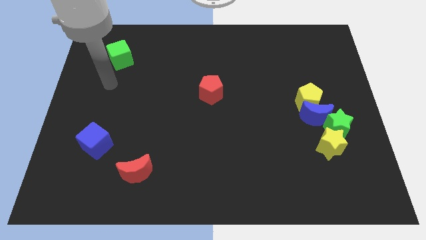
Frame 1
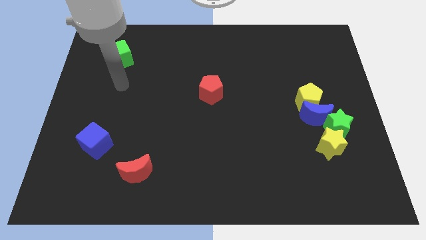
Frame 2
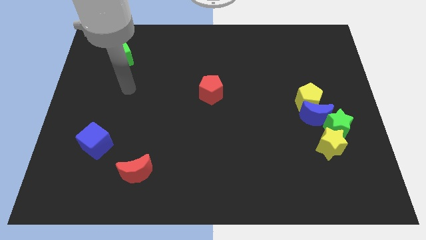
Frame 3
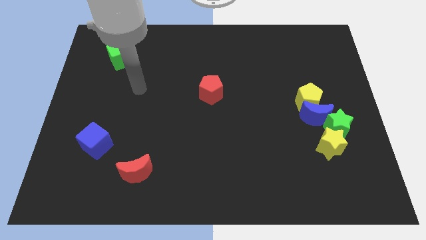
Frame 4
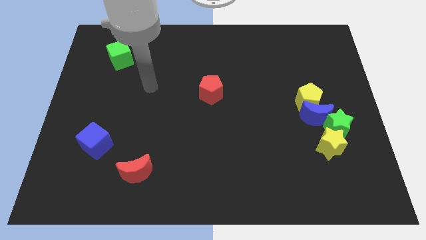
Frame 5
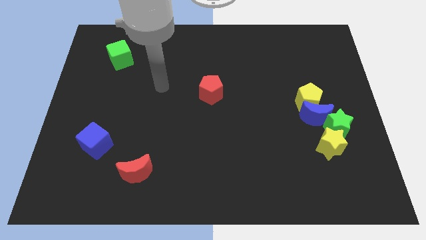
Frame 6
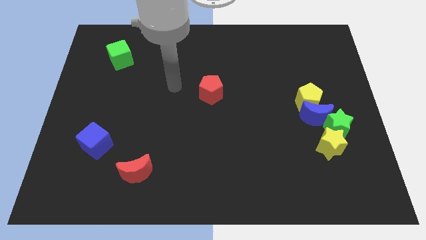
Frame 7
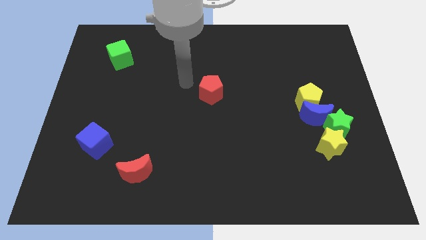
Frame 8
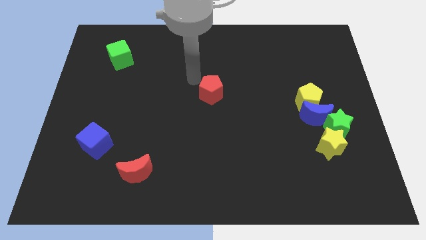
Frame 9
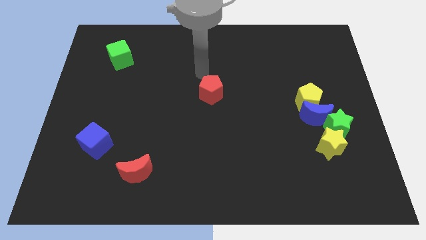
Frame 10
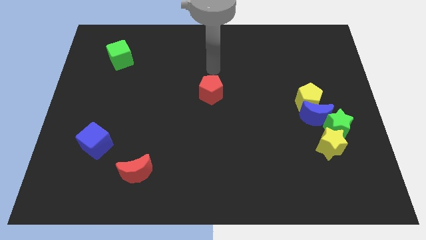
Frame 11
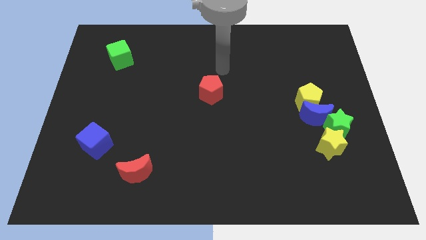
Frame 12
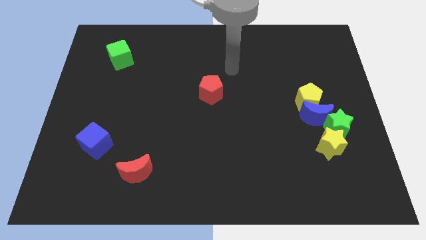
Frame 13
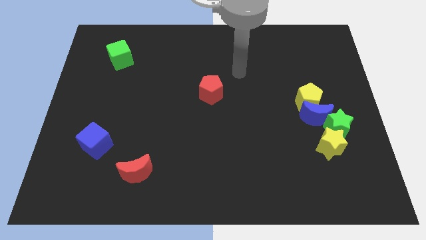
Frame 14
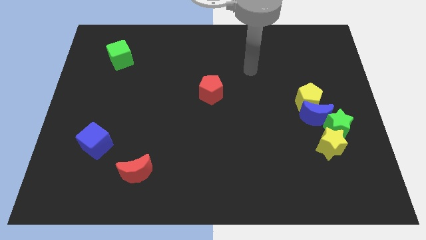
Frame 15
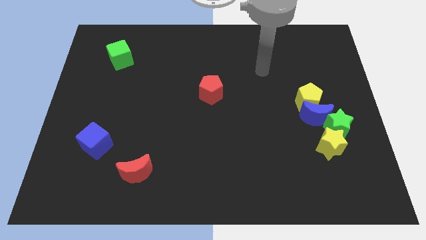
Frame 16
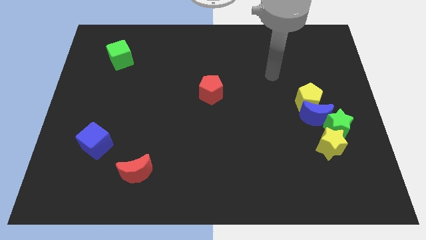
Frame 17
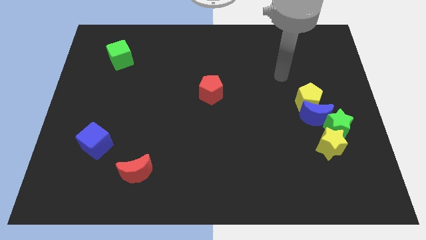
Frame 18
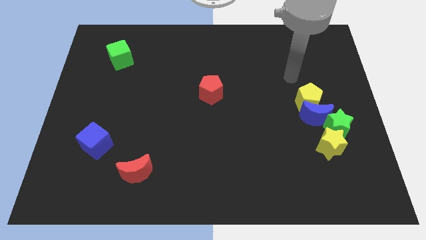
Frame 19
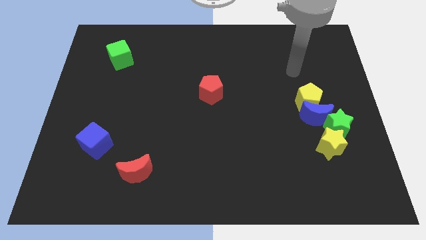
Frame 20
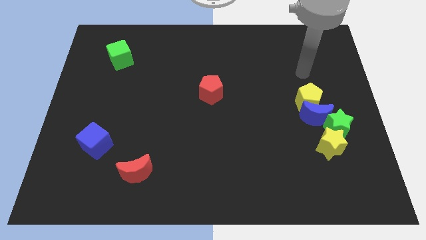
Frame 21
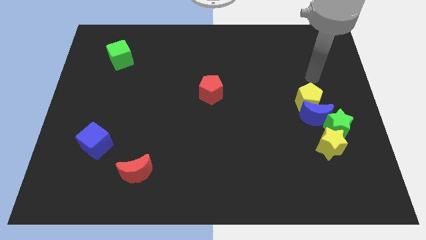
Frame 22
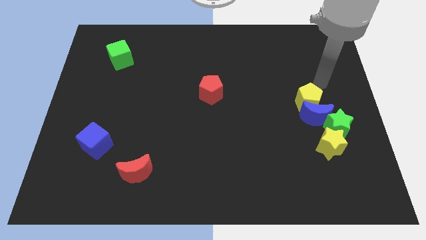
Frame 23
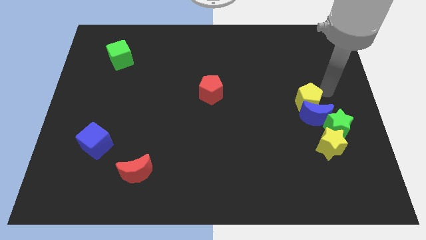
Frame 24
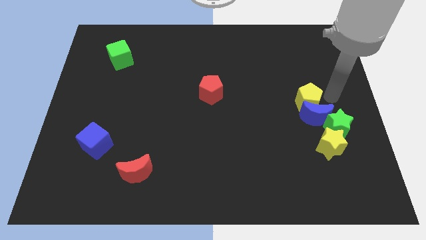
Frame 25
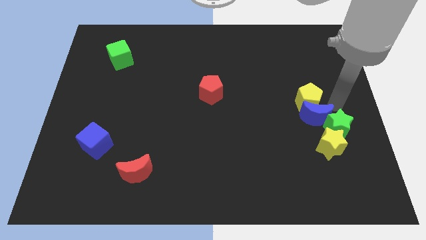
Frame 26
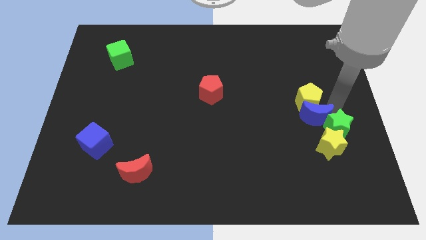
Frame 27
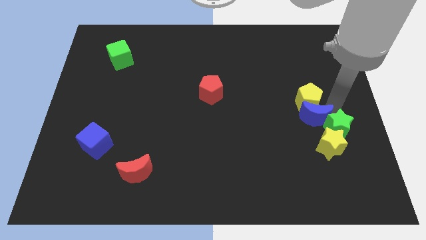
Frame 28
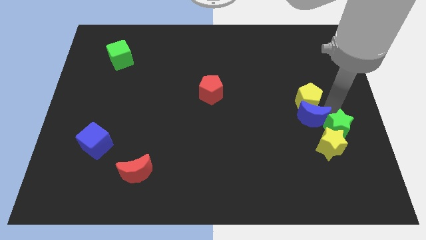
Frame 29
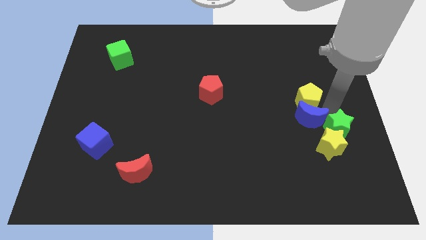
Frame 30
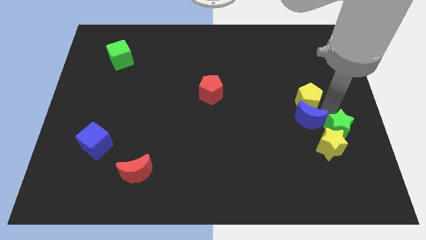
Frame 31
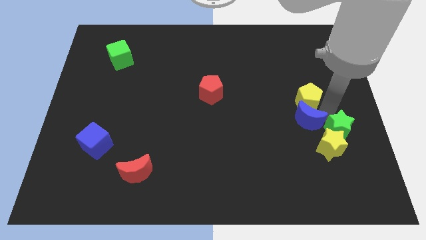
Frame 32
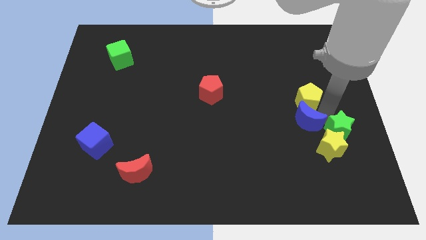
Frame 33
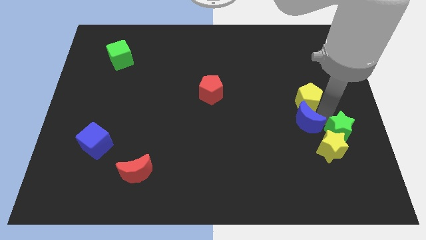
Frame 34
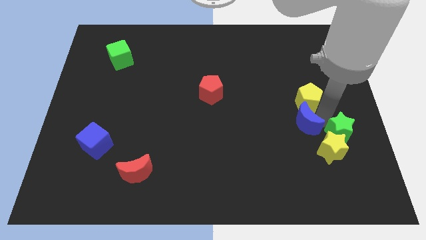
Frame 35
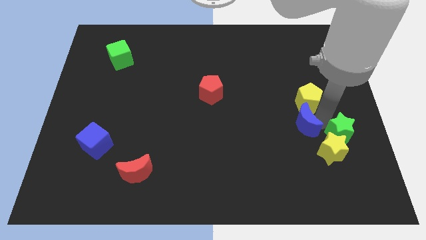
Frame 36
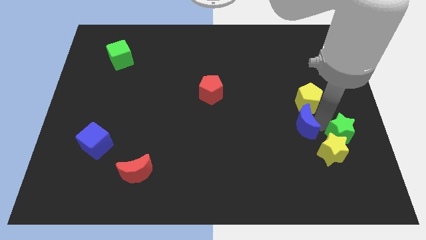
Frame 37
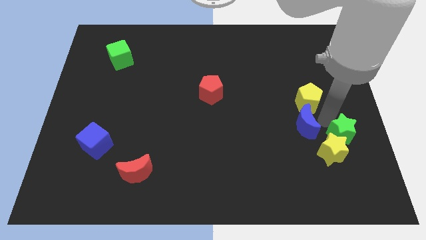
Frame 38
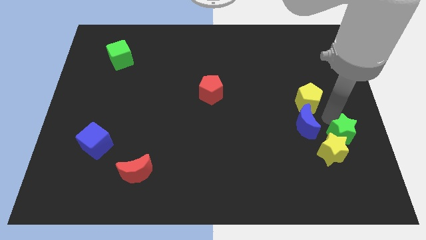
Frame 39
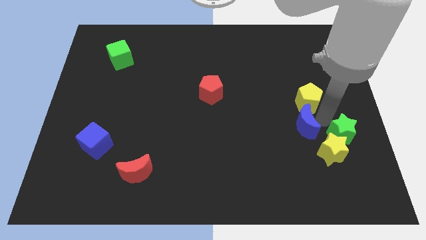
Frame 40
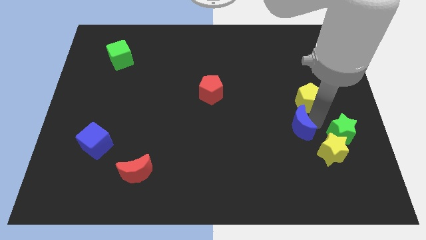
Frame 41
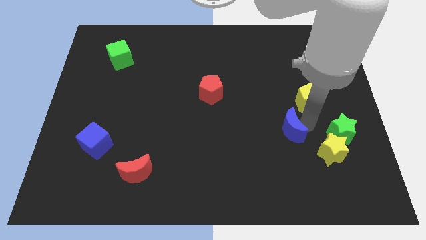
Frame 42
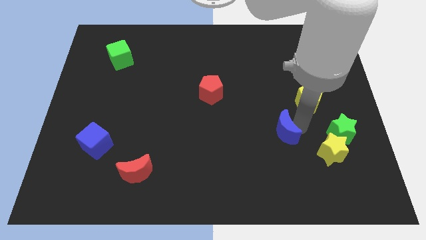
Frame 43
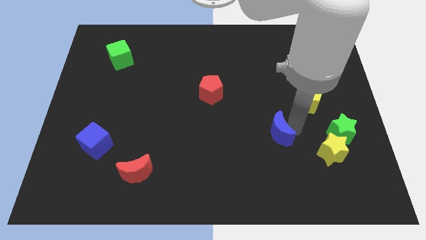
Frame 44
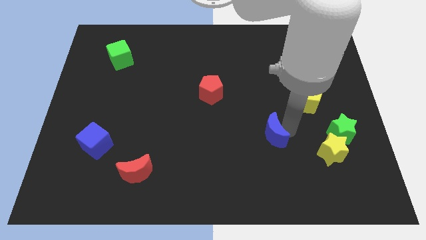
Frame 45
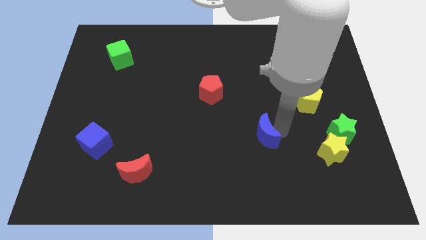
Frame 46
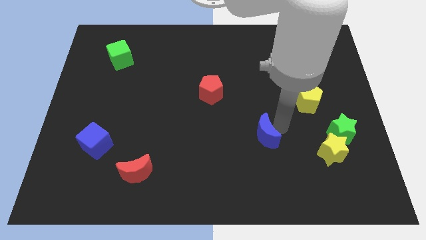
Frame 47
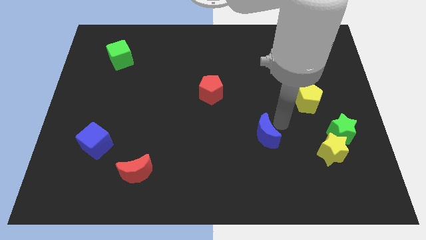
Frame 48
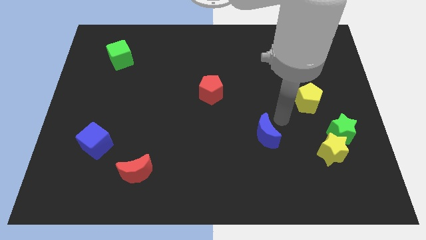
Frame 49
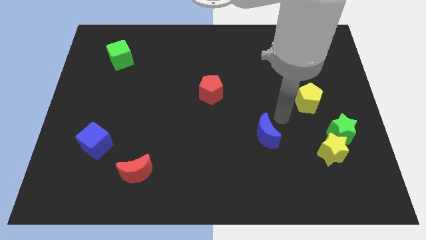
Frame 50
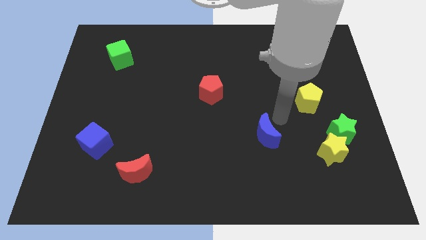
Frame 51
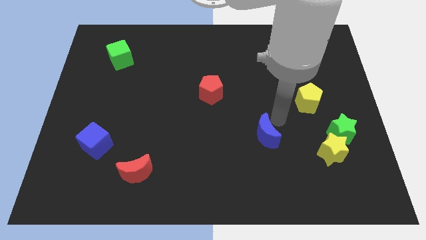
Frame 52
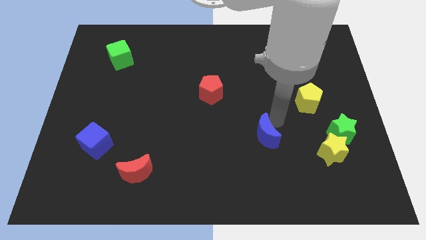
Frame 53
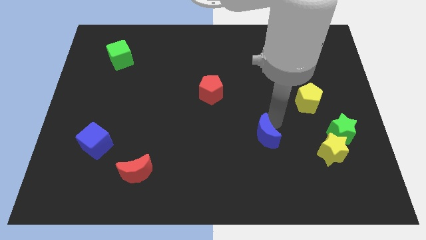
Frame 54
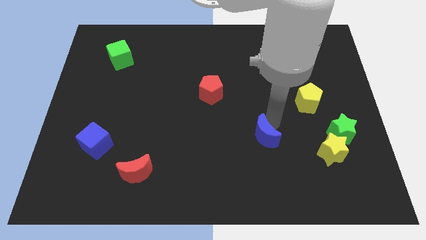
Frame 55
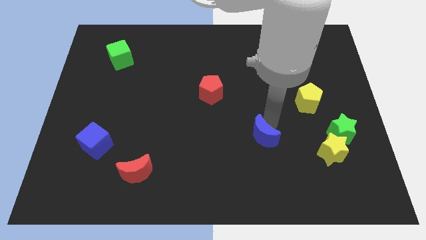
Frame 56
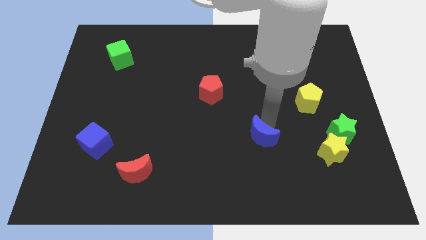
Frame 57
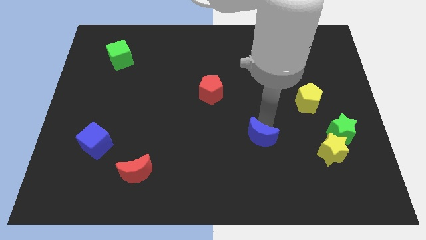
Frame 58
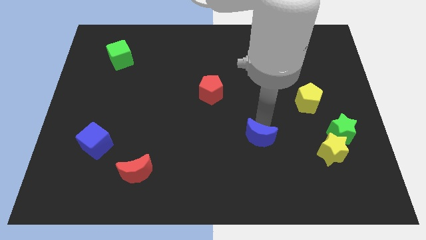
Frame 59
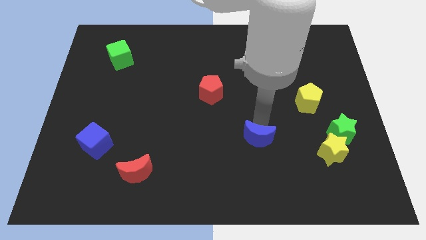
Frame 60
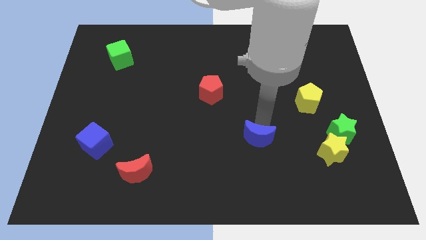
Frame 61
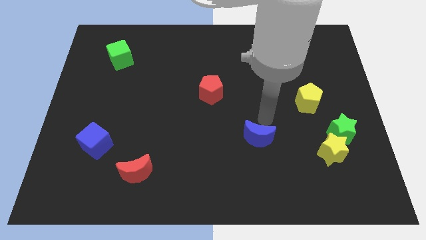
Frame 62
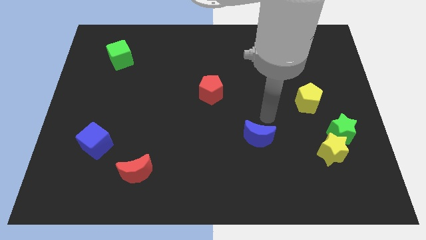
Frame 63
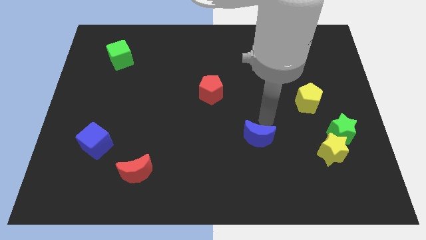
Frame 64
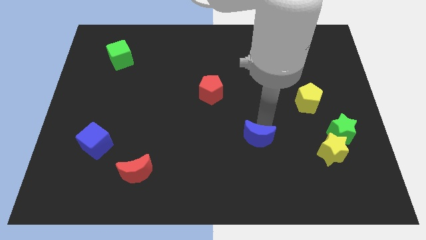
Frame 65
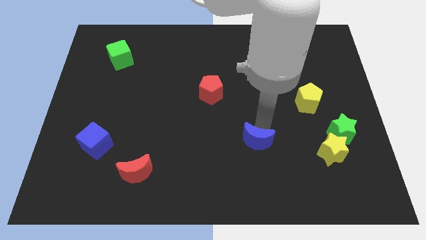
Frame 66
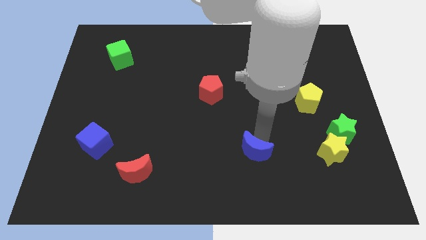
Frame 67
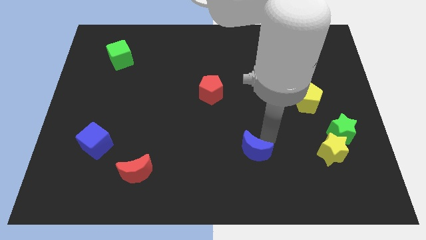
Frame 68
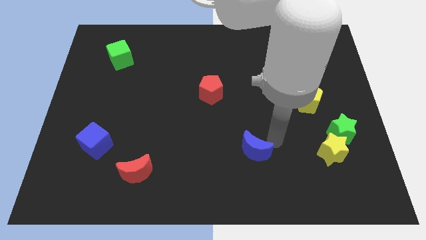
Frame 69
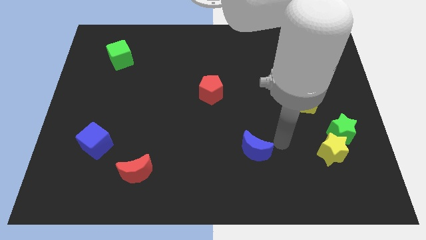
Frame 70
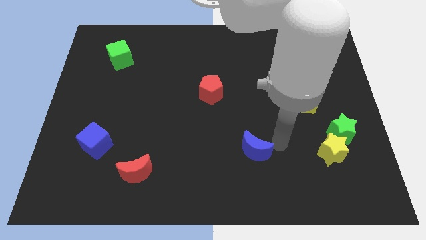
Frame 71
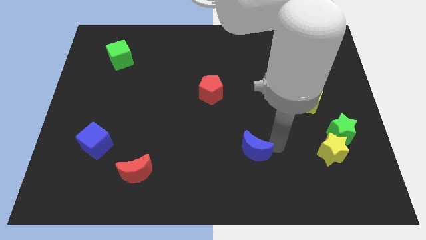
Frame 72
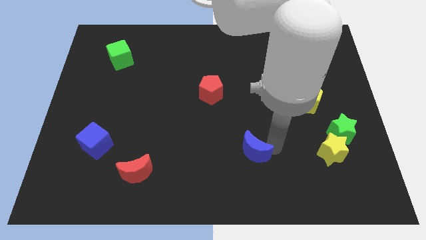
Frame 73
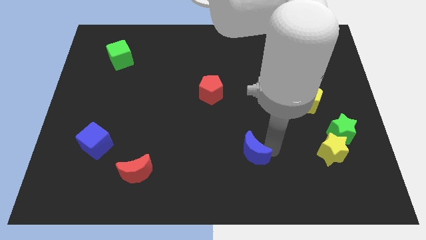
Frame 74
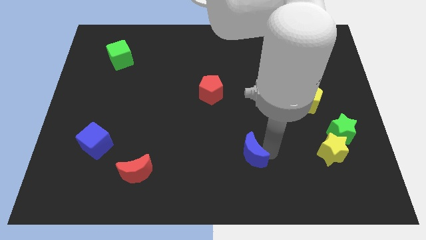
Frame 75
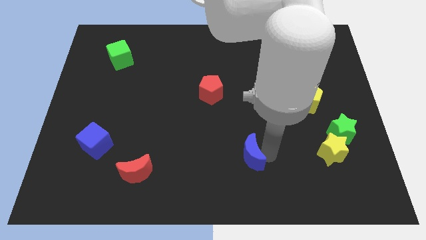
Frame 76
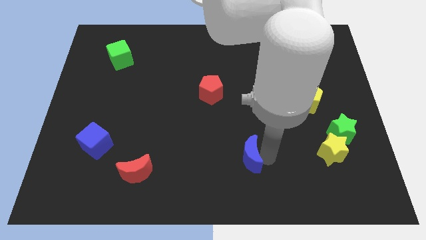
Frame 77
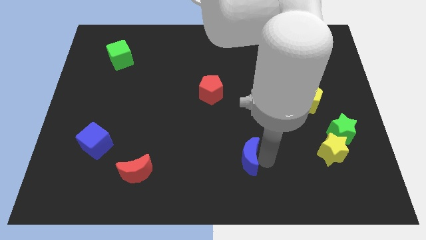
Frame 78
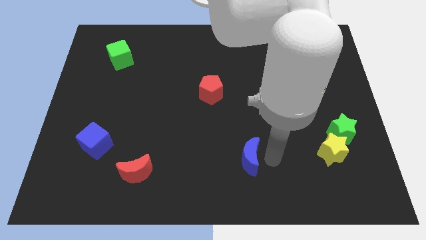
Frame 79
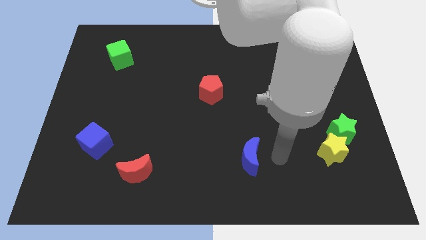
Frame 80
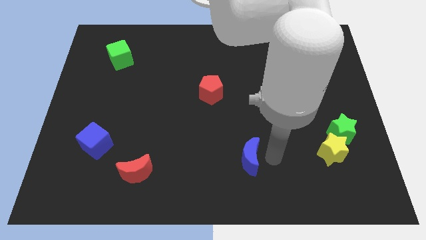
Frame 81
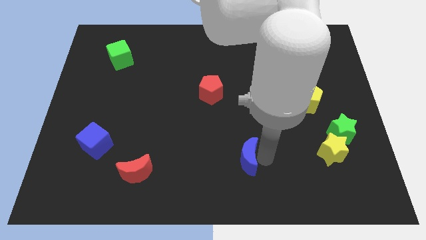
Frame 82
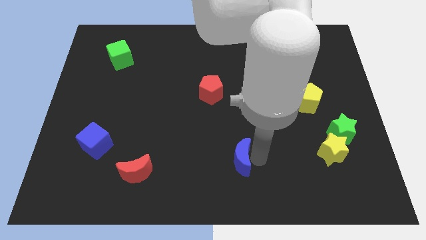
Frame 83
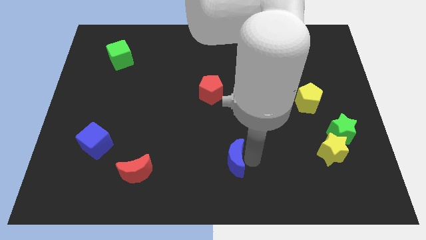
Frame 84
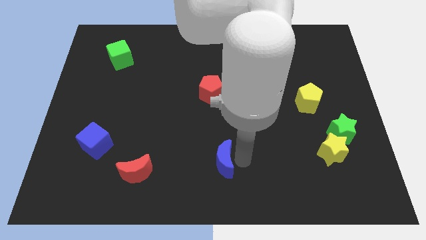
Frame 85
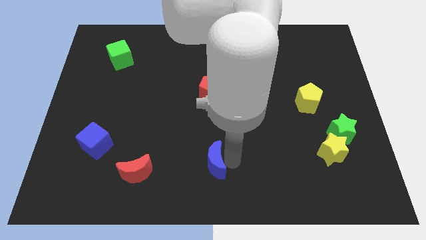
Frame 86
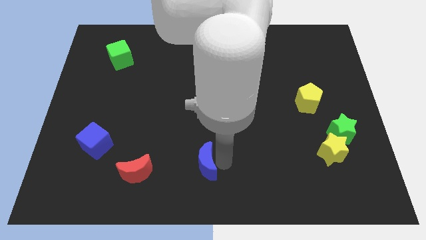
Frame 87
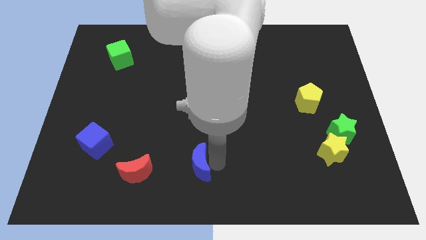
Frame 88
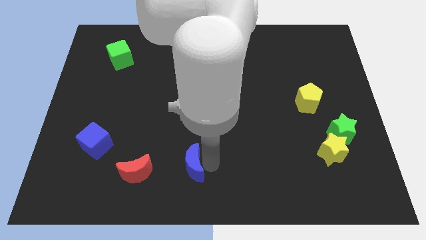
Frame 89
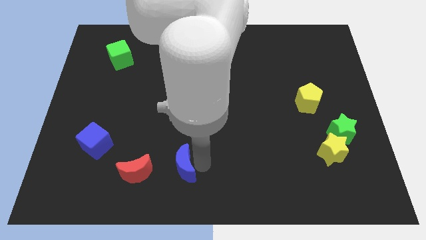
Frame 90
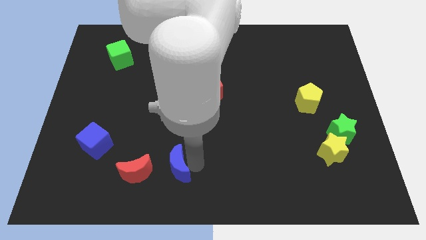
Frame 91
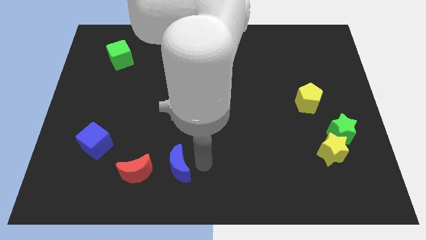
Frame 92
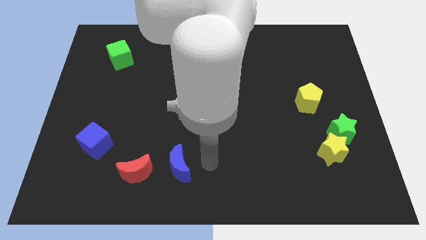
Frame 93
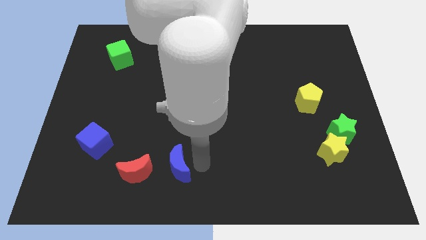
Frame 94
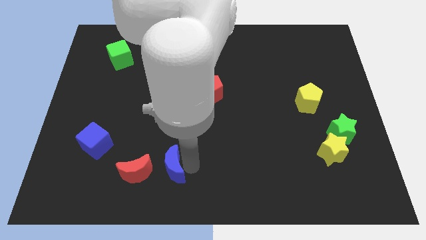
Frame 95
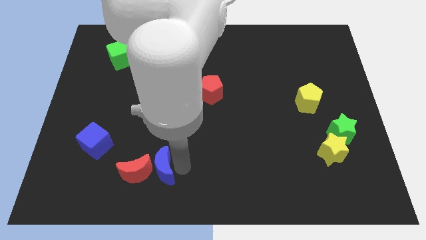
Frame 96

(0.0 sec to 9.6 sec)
put the blue moon close to the red moon
